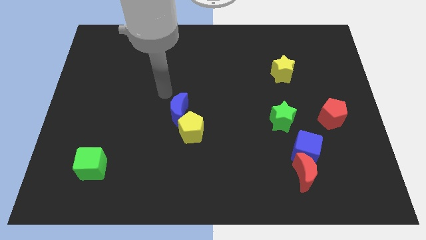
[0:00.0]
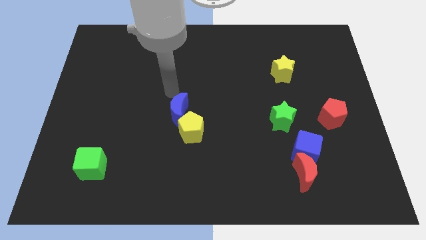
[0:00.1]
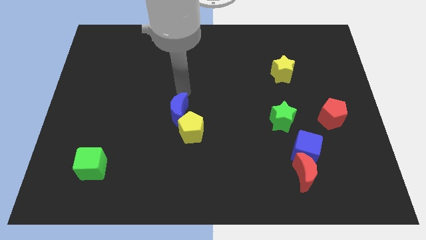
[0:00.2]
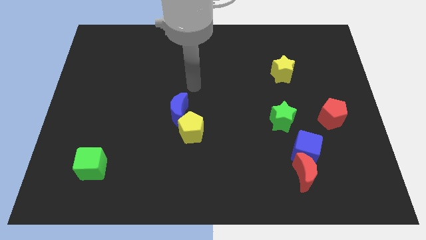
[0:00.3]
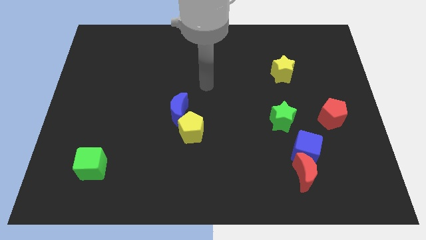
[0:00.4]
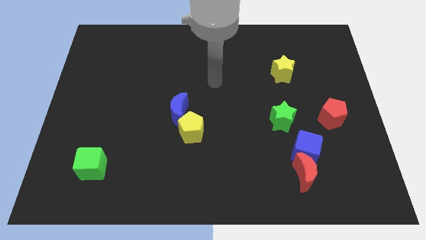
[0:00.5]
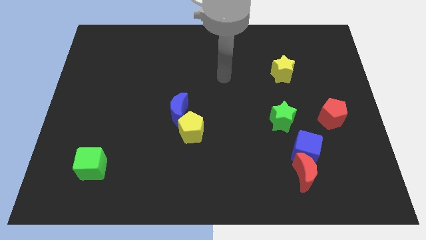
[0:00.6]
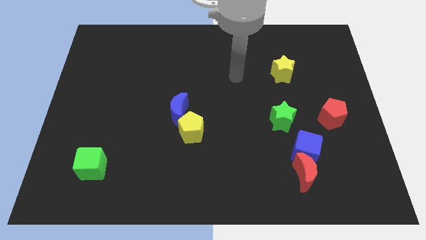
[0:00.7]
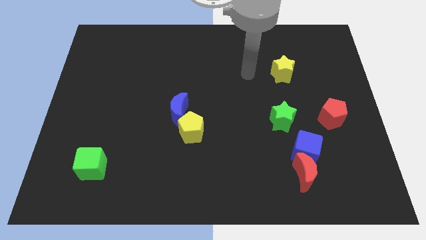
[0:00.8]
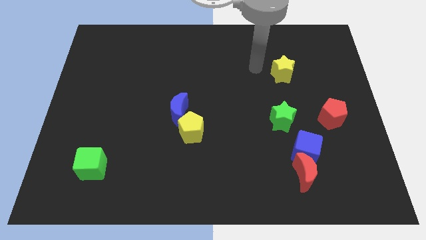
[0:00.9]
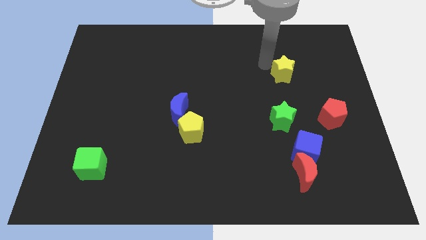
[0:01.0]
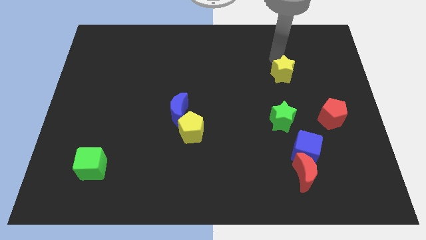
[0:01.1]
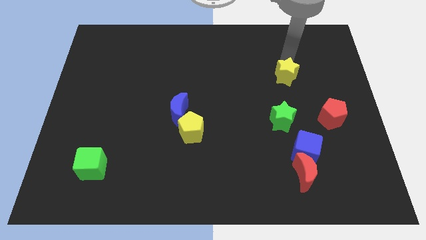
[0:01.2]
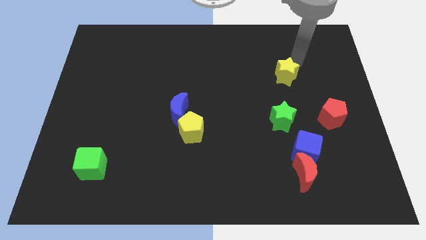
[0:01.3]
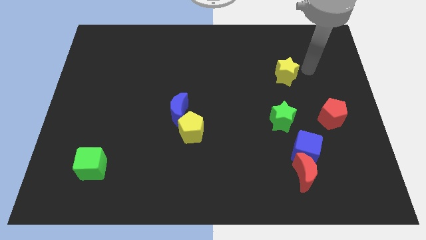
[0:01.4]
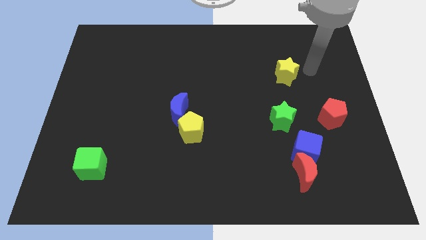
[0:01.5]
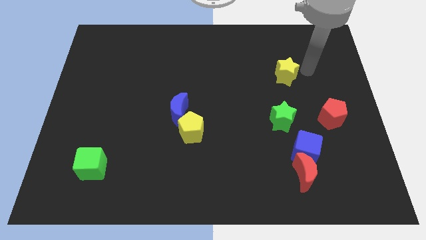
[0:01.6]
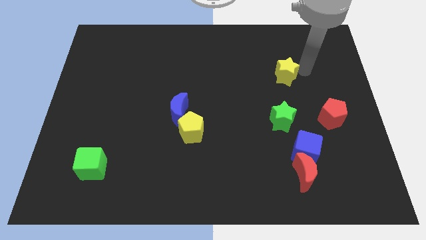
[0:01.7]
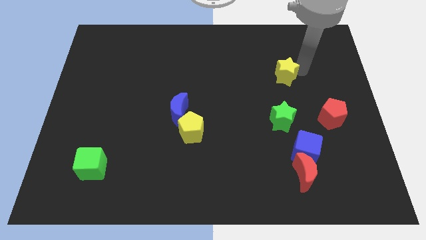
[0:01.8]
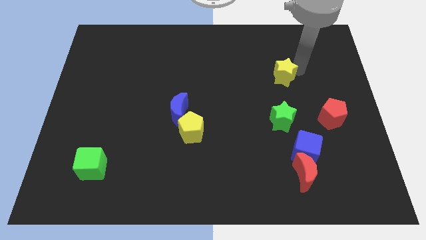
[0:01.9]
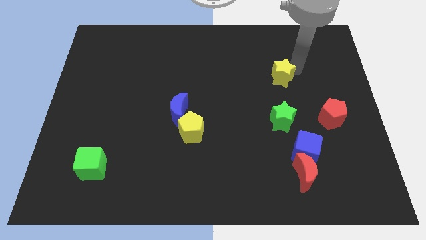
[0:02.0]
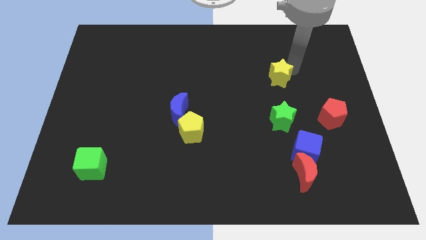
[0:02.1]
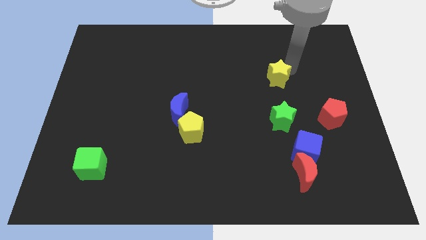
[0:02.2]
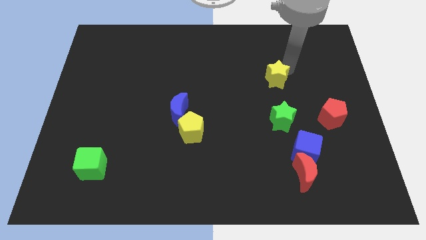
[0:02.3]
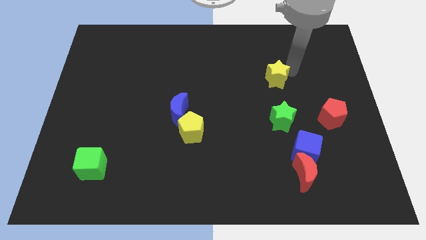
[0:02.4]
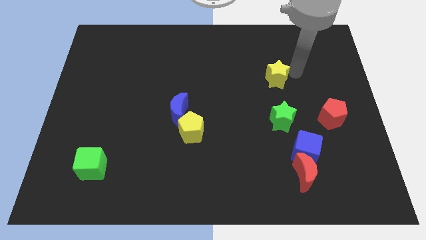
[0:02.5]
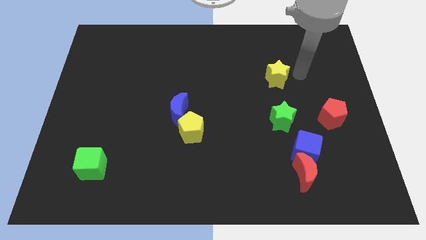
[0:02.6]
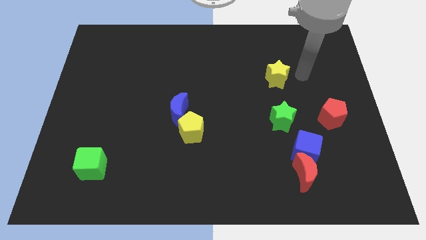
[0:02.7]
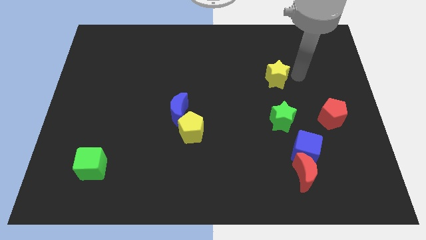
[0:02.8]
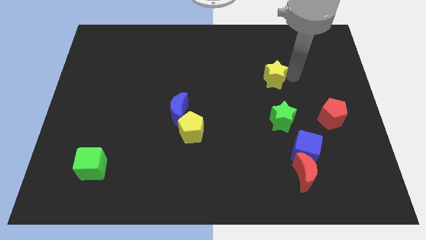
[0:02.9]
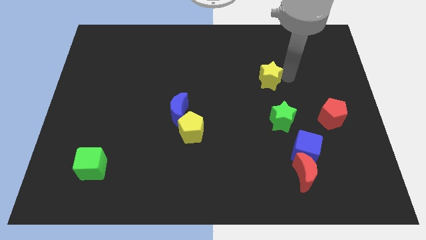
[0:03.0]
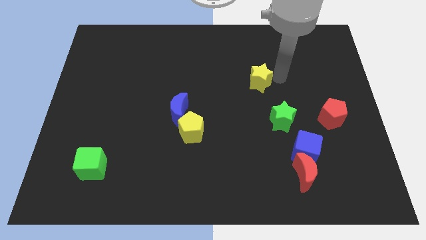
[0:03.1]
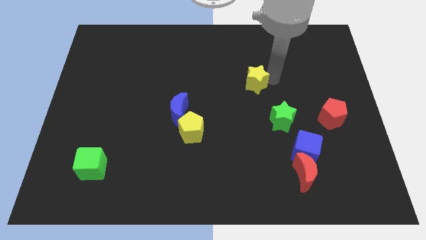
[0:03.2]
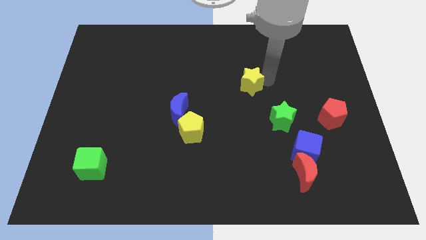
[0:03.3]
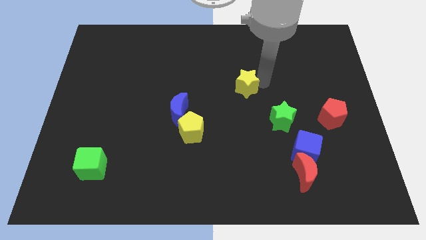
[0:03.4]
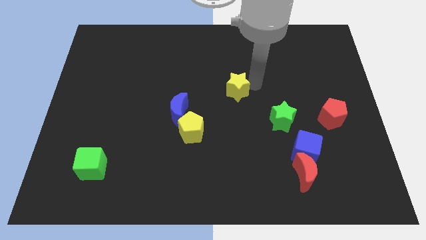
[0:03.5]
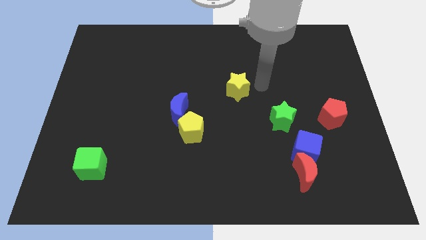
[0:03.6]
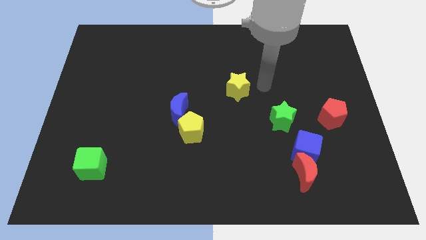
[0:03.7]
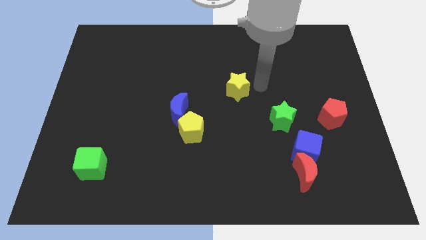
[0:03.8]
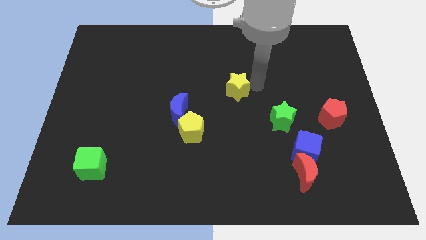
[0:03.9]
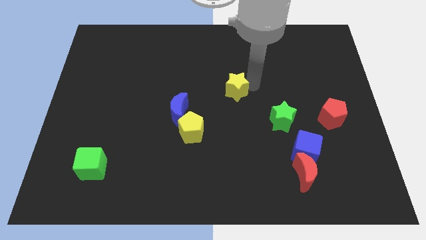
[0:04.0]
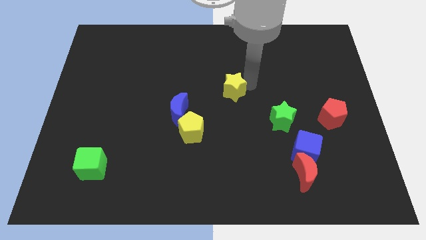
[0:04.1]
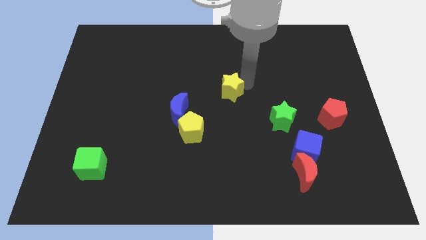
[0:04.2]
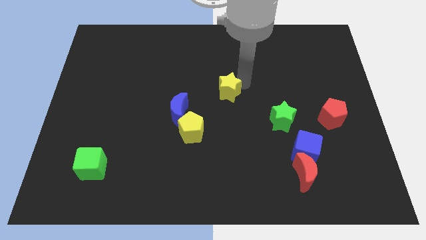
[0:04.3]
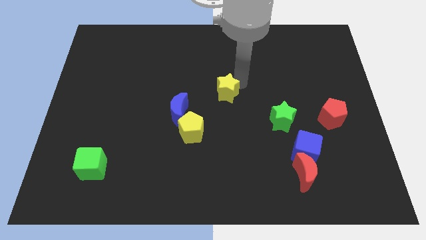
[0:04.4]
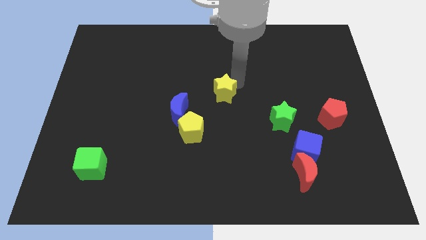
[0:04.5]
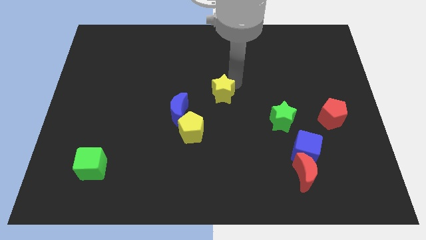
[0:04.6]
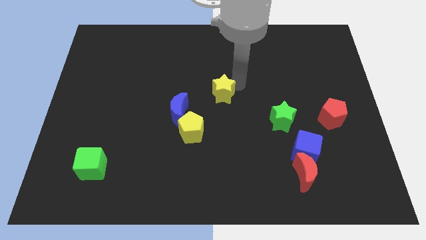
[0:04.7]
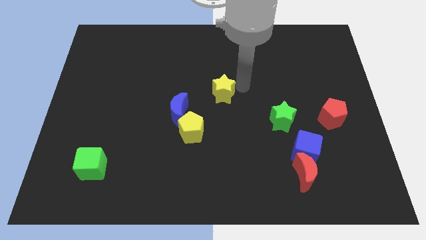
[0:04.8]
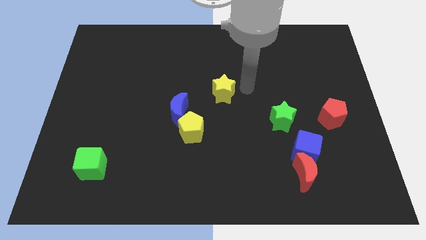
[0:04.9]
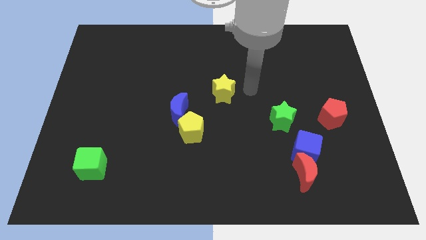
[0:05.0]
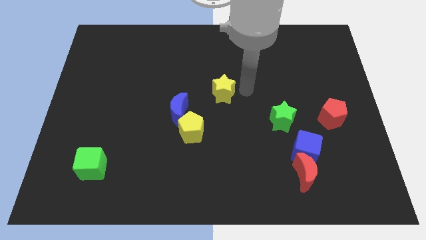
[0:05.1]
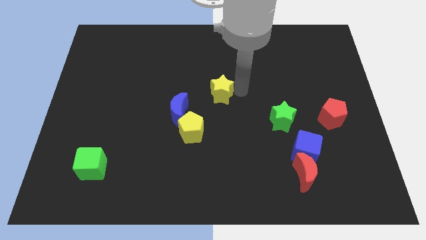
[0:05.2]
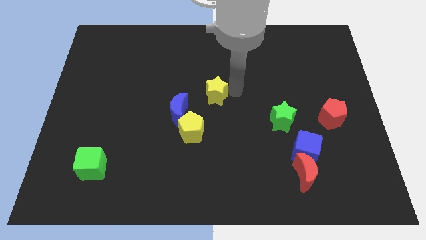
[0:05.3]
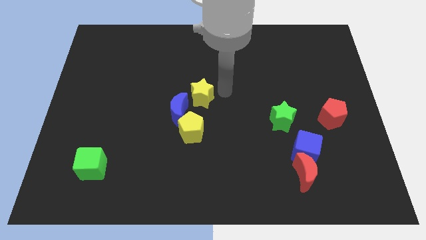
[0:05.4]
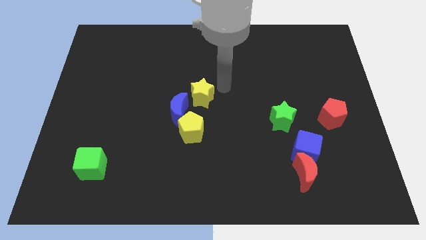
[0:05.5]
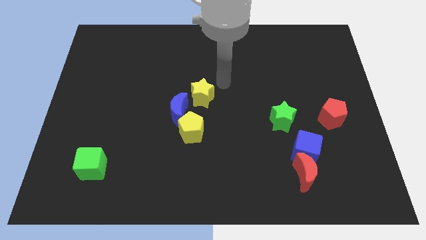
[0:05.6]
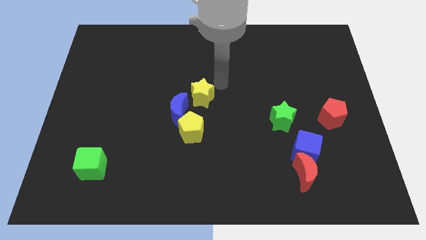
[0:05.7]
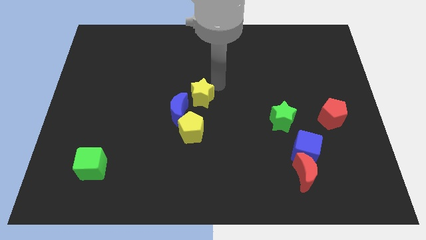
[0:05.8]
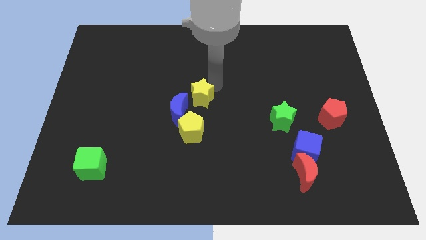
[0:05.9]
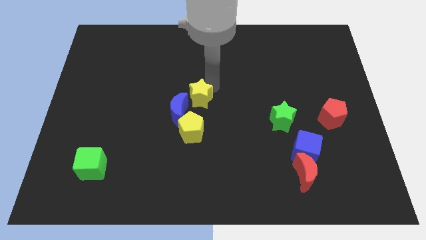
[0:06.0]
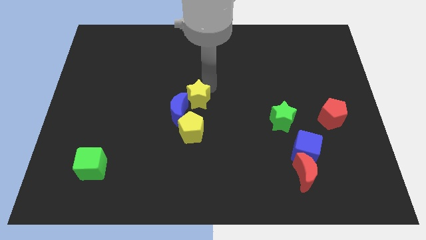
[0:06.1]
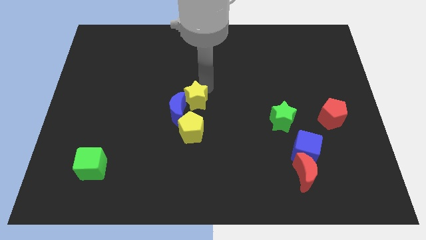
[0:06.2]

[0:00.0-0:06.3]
slide the yellow star towards the blue moon

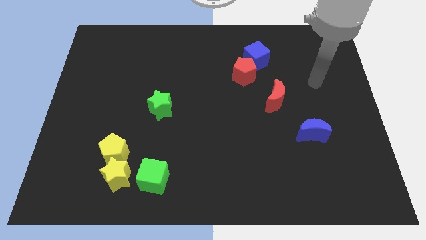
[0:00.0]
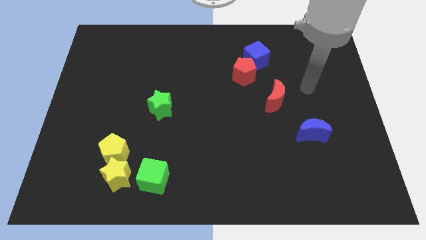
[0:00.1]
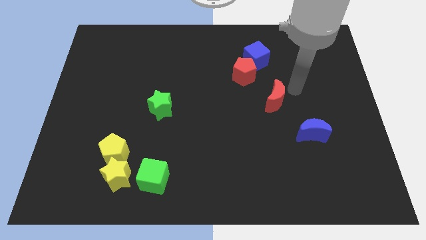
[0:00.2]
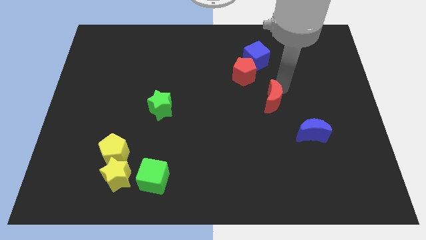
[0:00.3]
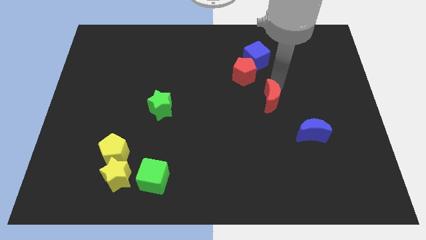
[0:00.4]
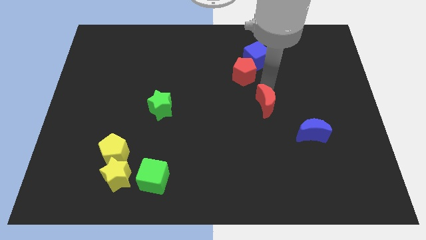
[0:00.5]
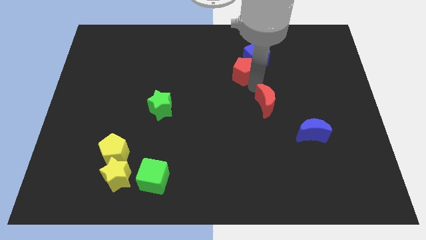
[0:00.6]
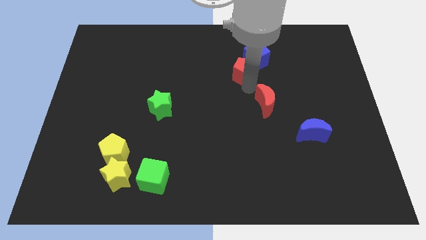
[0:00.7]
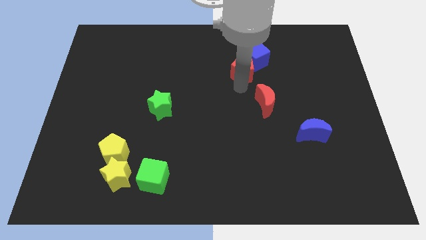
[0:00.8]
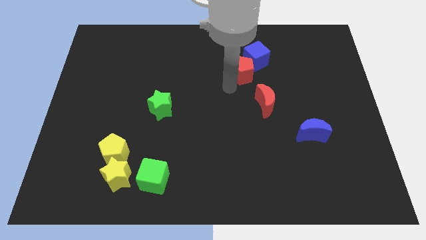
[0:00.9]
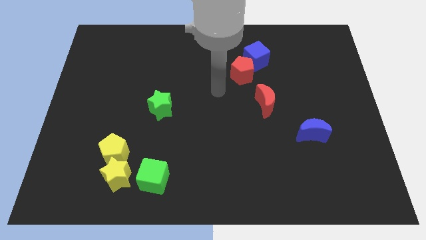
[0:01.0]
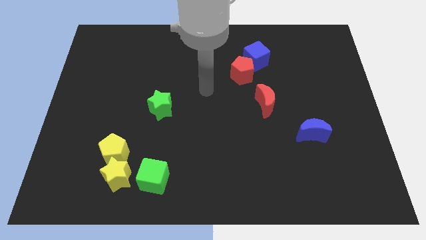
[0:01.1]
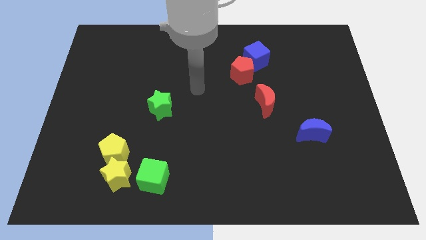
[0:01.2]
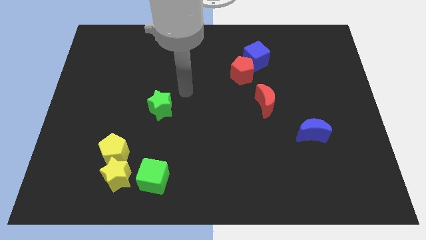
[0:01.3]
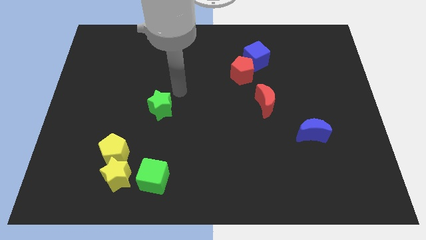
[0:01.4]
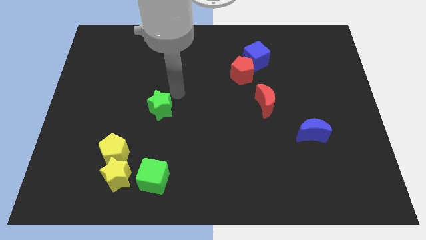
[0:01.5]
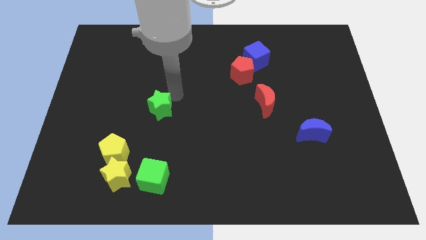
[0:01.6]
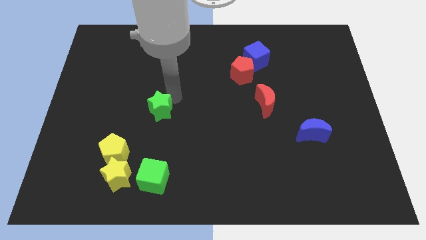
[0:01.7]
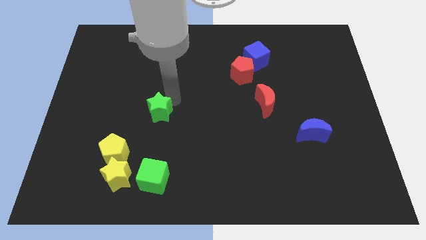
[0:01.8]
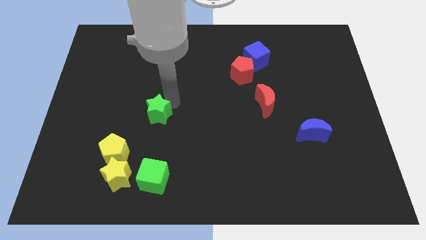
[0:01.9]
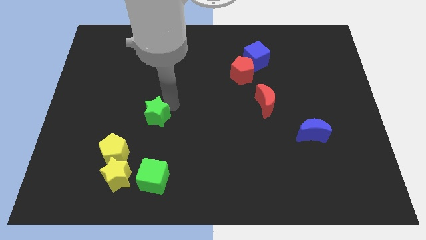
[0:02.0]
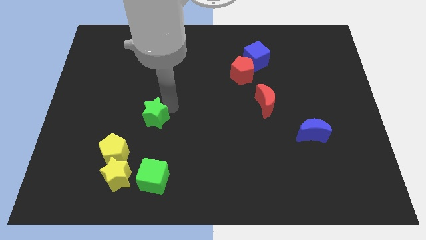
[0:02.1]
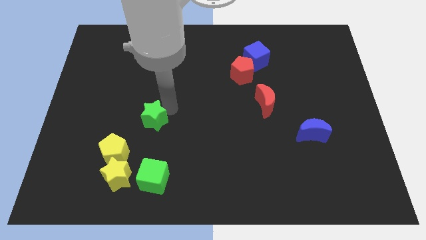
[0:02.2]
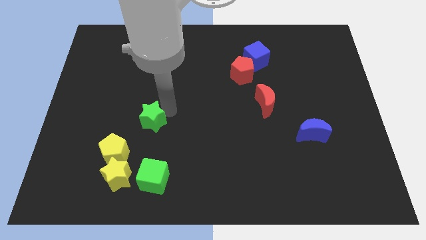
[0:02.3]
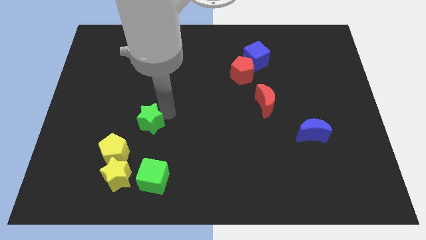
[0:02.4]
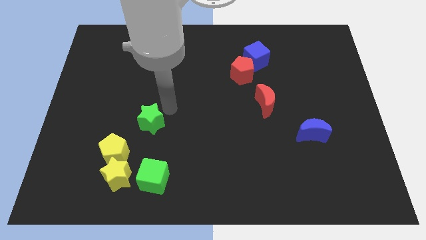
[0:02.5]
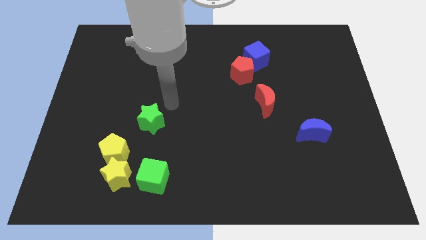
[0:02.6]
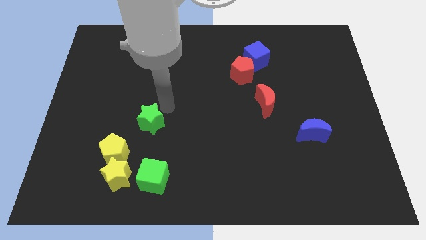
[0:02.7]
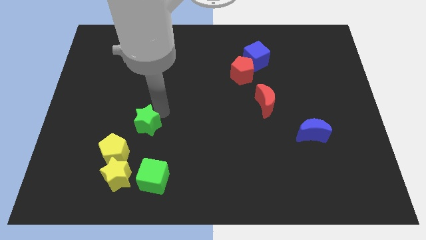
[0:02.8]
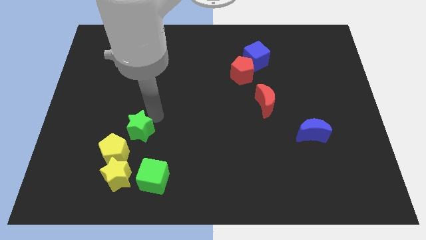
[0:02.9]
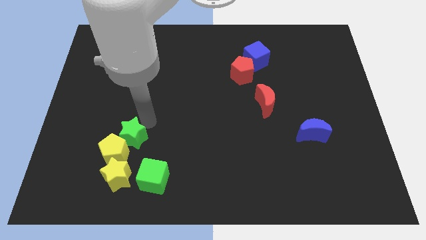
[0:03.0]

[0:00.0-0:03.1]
move the green star close to the yellow pentagon
